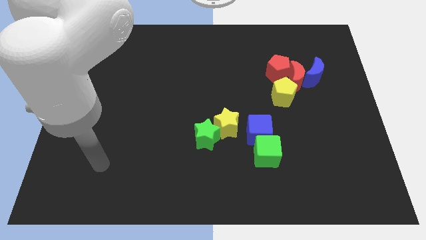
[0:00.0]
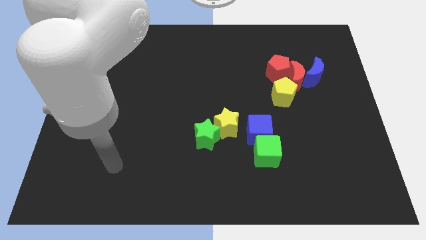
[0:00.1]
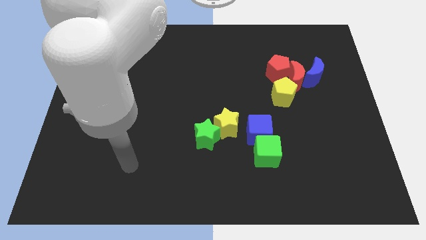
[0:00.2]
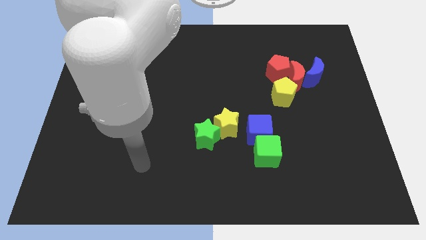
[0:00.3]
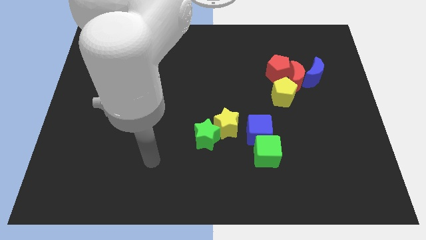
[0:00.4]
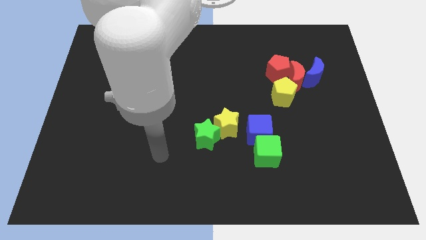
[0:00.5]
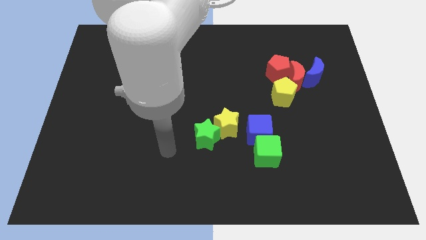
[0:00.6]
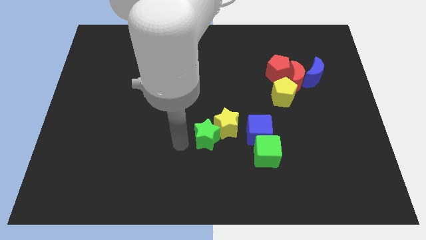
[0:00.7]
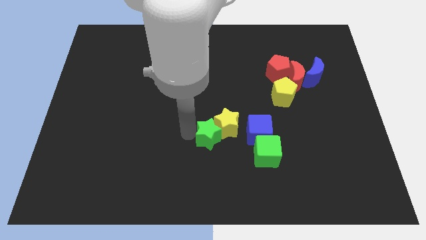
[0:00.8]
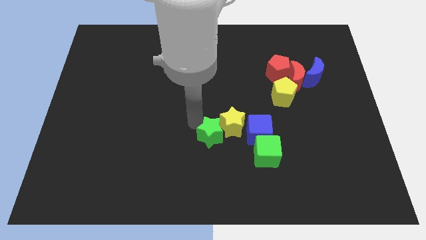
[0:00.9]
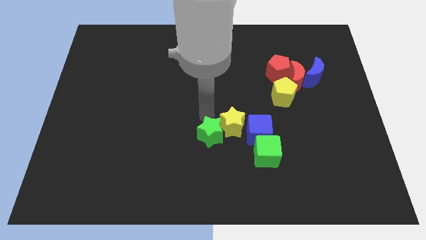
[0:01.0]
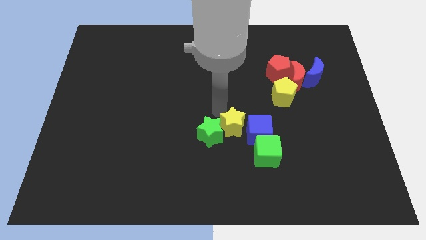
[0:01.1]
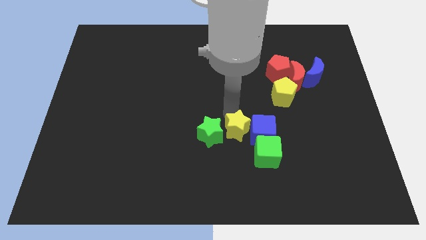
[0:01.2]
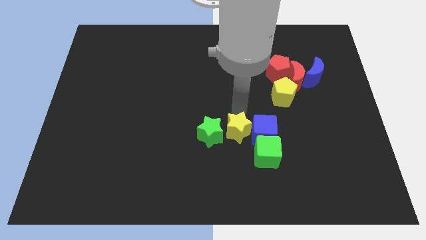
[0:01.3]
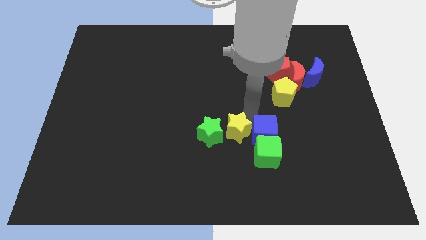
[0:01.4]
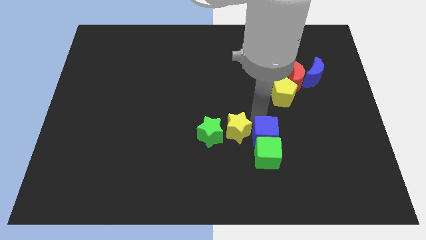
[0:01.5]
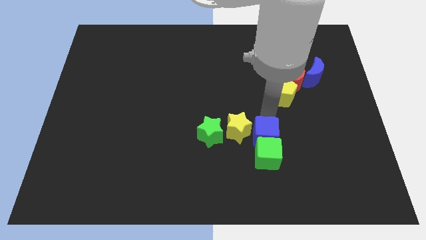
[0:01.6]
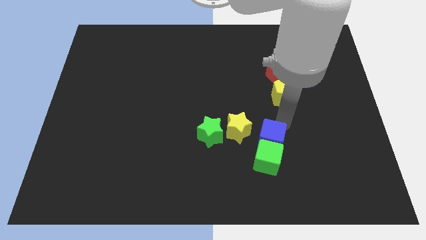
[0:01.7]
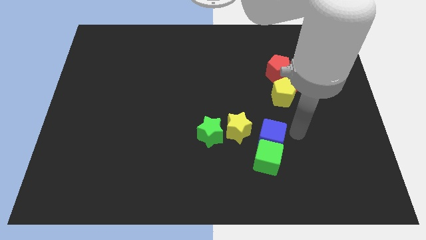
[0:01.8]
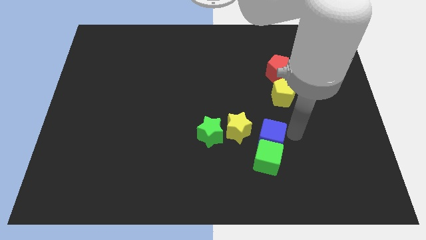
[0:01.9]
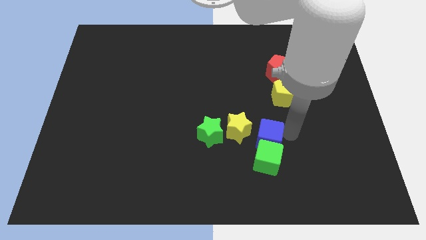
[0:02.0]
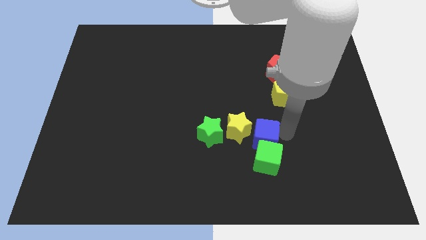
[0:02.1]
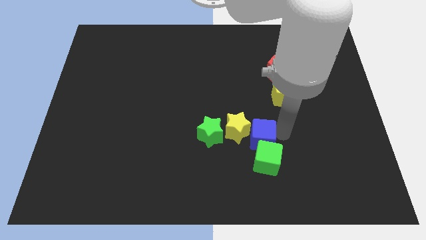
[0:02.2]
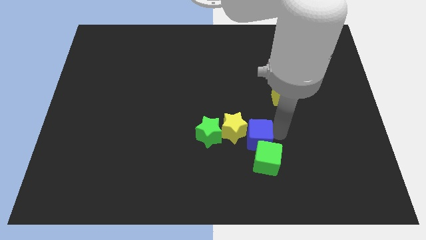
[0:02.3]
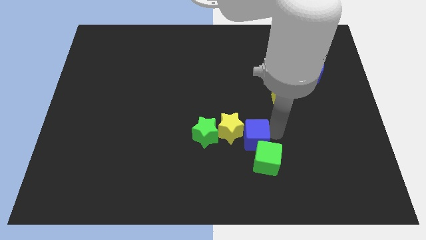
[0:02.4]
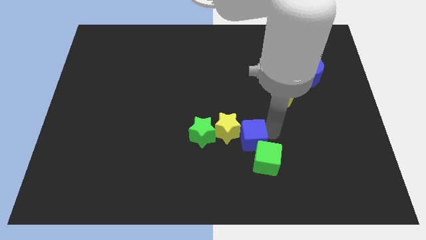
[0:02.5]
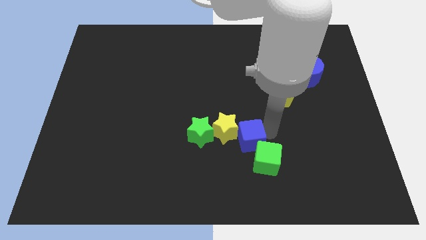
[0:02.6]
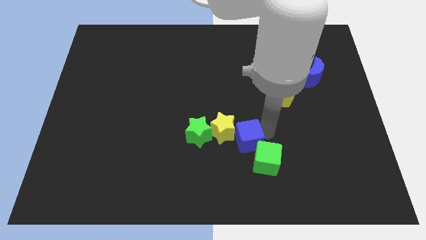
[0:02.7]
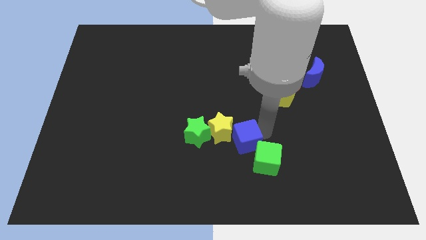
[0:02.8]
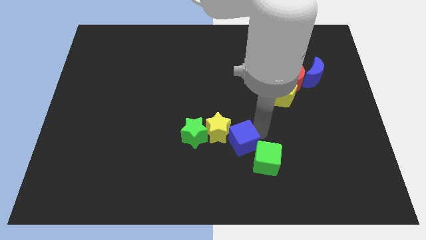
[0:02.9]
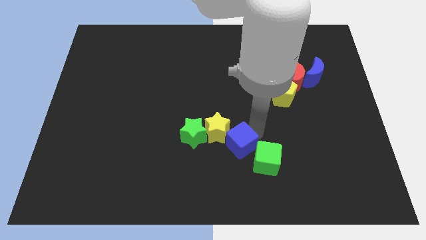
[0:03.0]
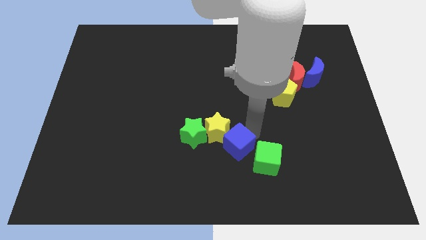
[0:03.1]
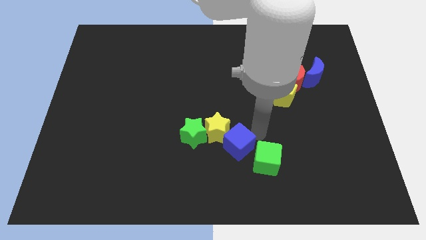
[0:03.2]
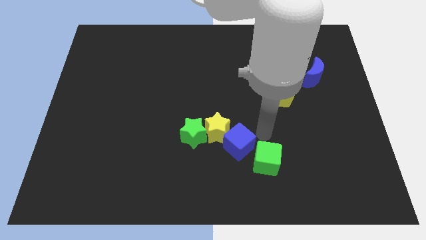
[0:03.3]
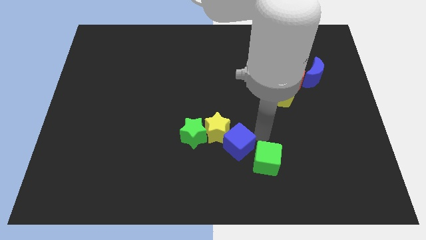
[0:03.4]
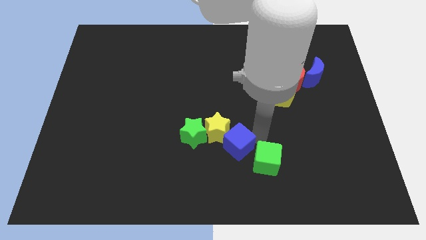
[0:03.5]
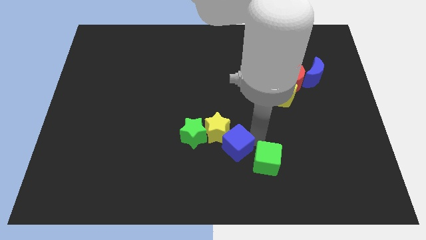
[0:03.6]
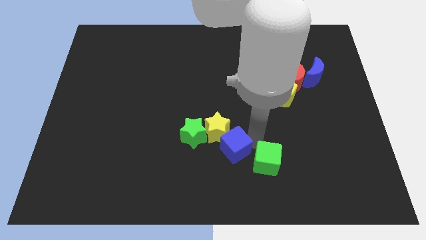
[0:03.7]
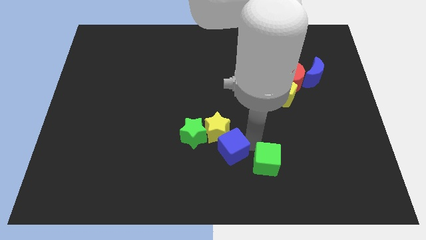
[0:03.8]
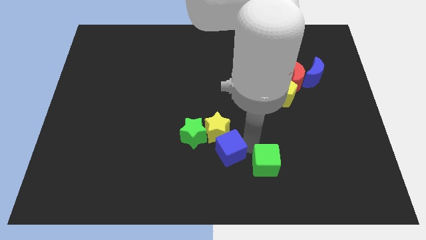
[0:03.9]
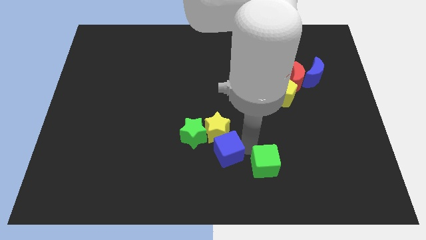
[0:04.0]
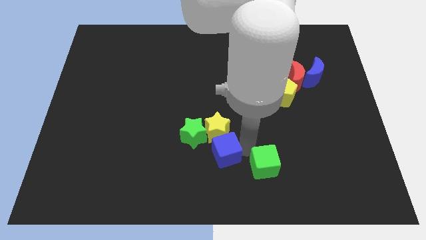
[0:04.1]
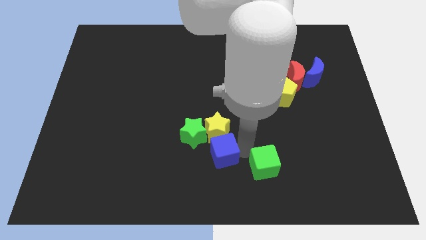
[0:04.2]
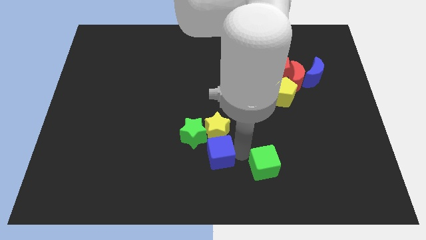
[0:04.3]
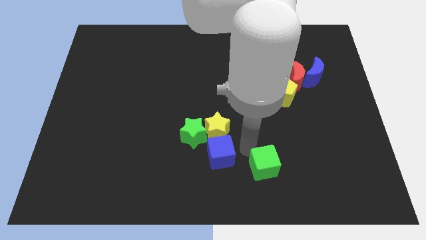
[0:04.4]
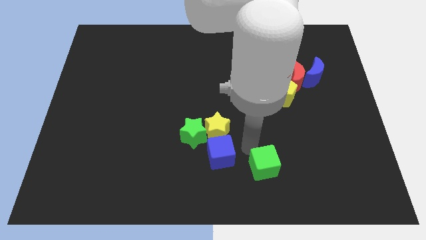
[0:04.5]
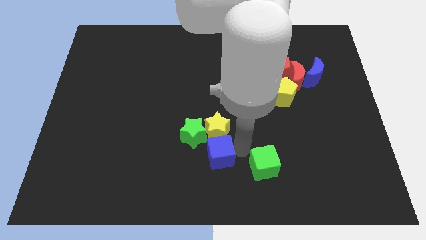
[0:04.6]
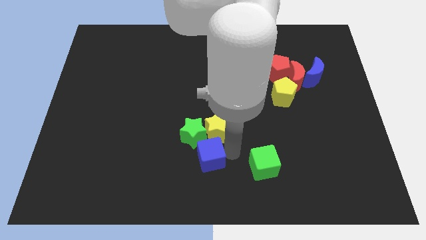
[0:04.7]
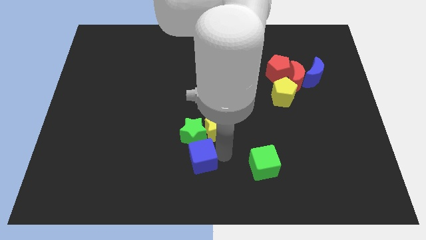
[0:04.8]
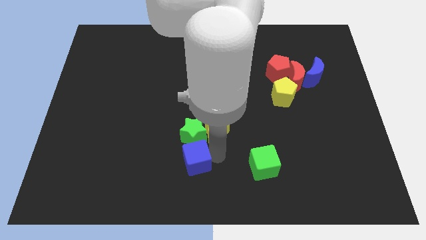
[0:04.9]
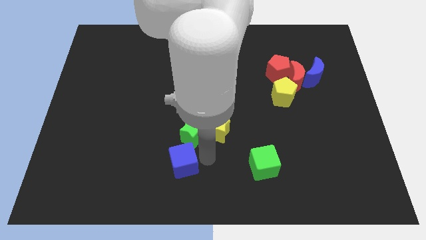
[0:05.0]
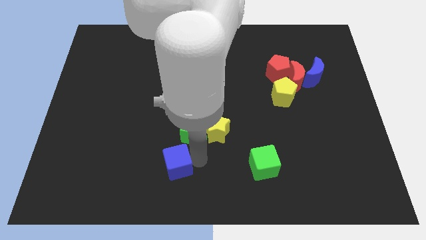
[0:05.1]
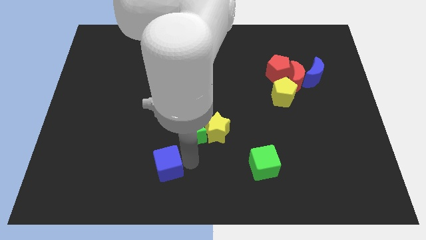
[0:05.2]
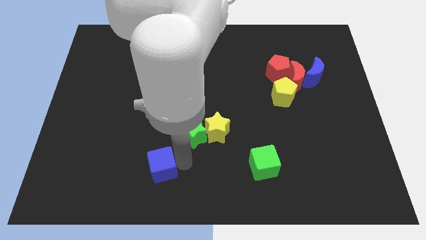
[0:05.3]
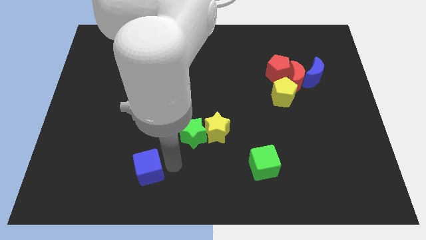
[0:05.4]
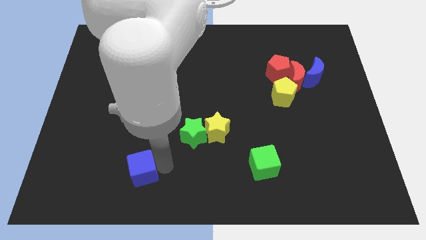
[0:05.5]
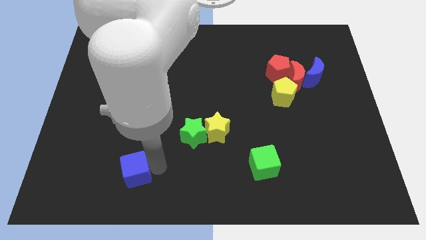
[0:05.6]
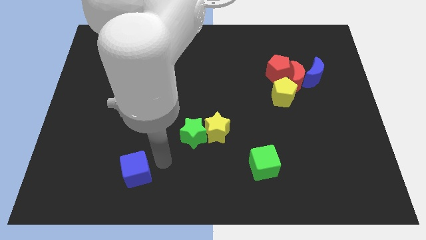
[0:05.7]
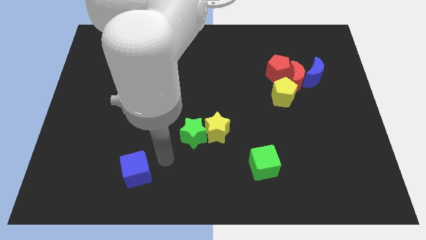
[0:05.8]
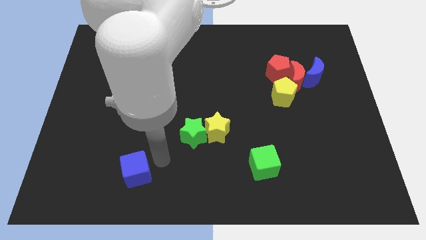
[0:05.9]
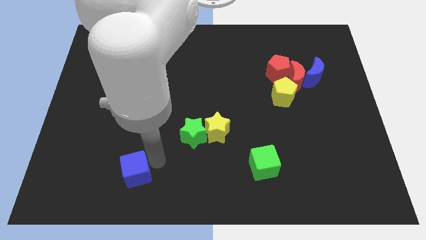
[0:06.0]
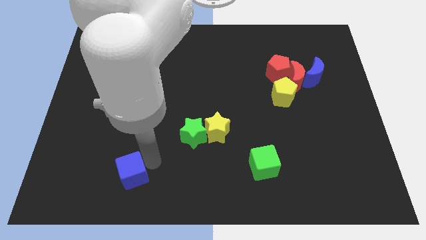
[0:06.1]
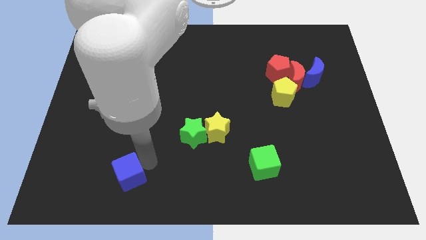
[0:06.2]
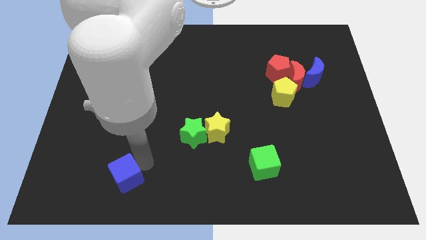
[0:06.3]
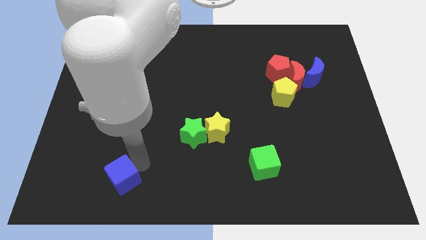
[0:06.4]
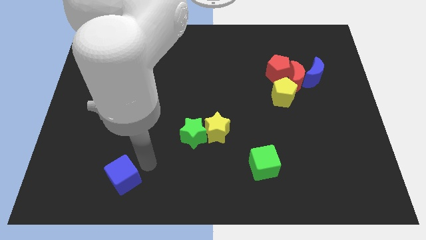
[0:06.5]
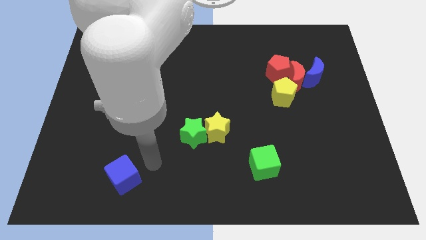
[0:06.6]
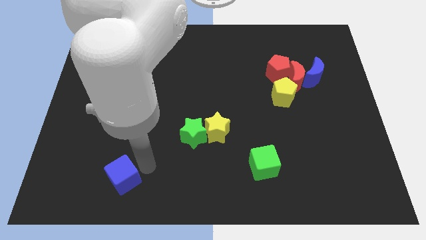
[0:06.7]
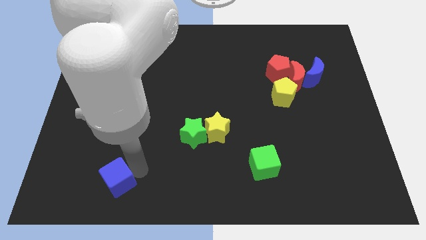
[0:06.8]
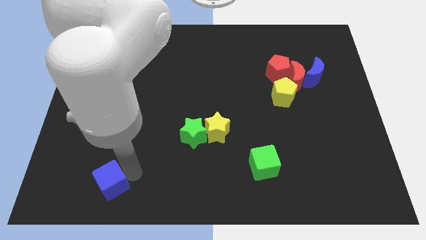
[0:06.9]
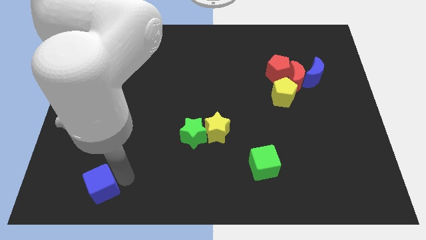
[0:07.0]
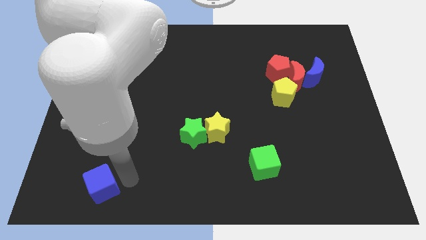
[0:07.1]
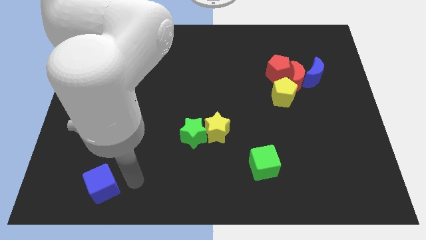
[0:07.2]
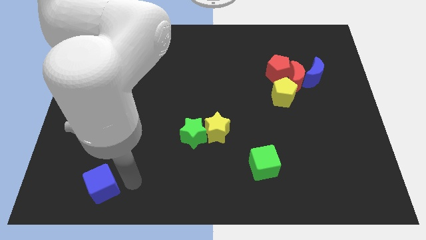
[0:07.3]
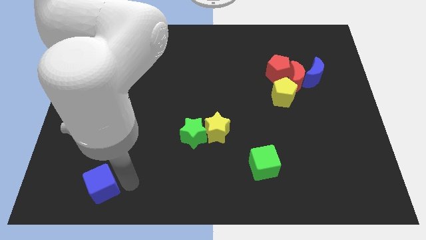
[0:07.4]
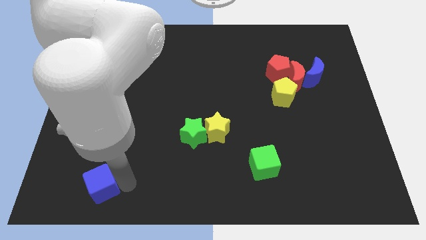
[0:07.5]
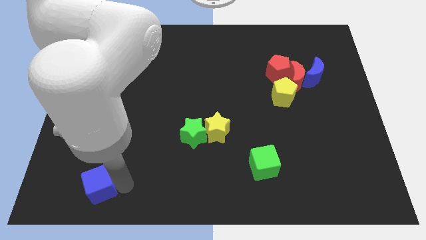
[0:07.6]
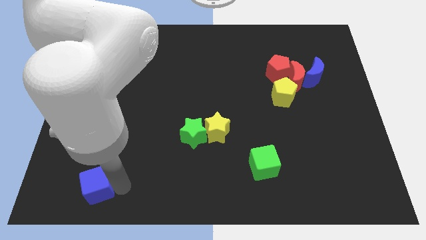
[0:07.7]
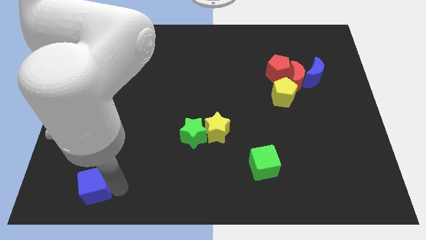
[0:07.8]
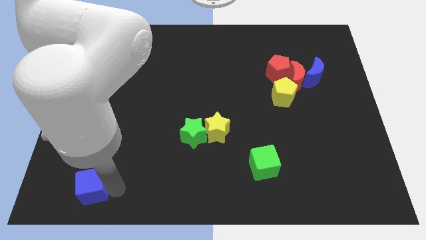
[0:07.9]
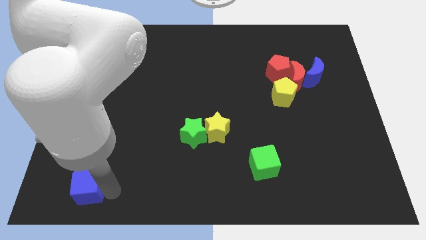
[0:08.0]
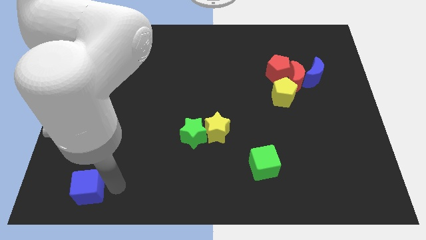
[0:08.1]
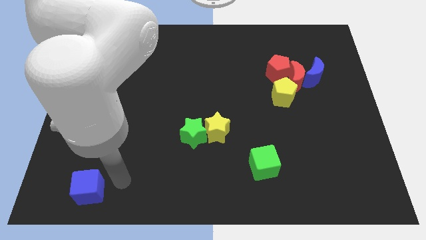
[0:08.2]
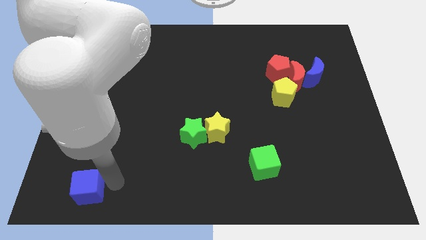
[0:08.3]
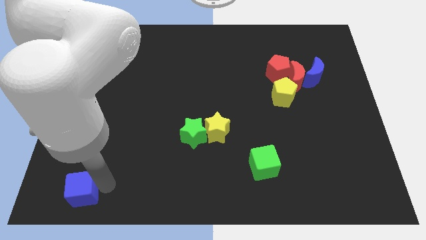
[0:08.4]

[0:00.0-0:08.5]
slide the blue cube to the bottom left
